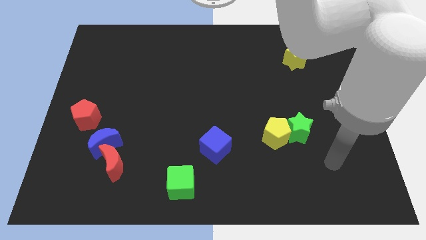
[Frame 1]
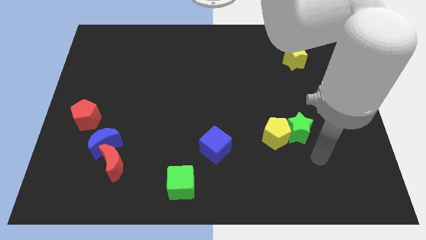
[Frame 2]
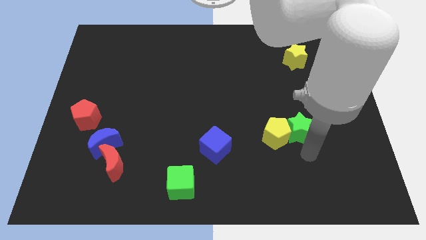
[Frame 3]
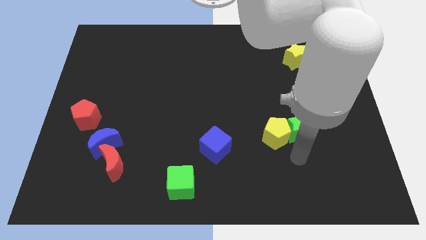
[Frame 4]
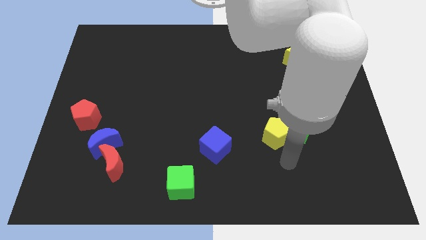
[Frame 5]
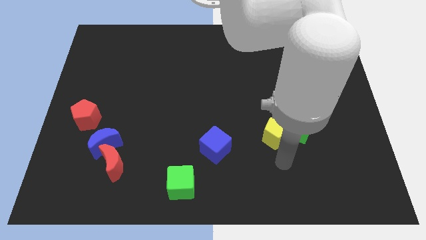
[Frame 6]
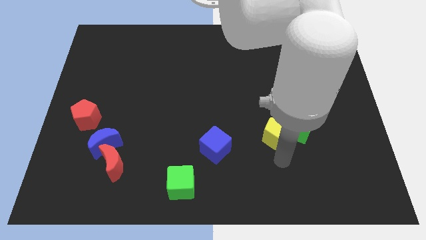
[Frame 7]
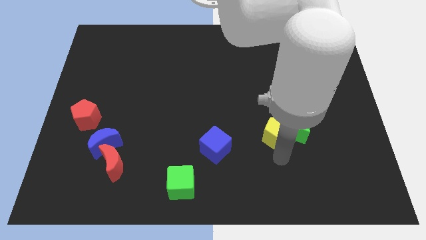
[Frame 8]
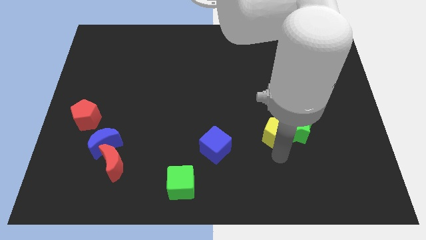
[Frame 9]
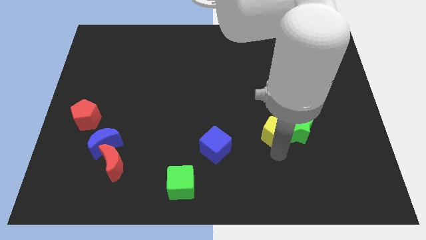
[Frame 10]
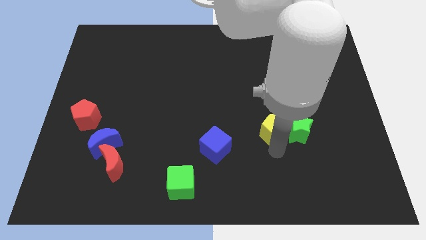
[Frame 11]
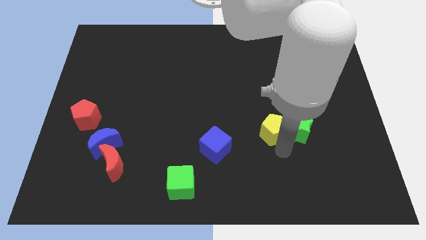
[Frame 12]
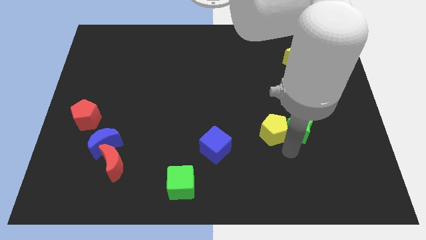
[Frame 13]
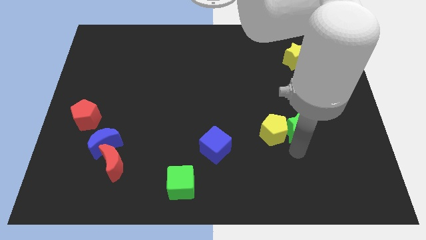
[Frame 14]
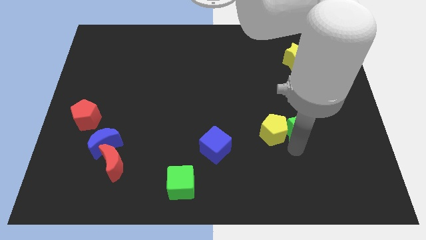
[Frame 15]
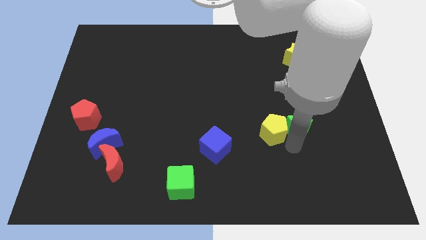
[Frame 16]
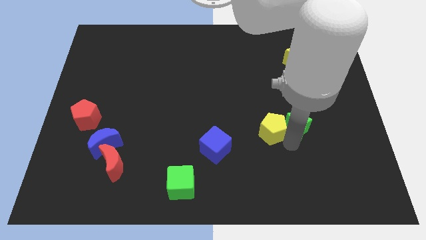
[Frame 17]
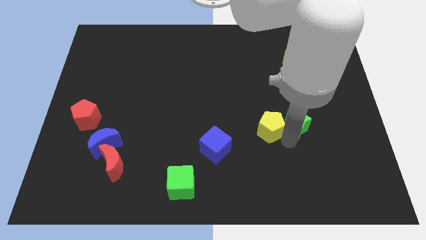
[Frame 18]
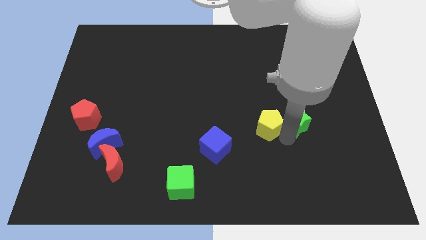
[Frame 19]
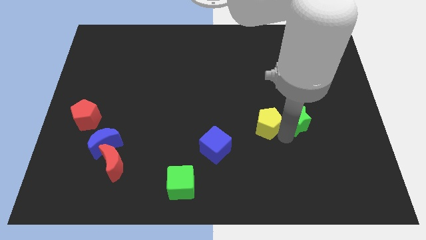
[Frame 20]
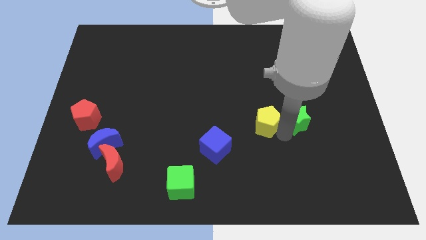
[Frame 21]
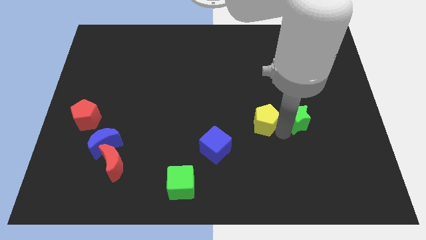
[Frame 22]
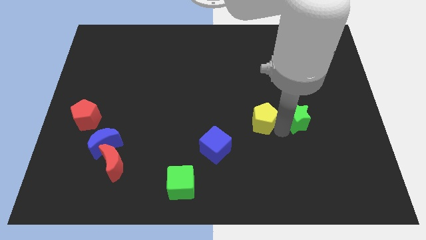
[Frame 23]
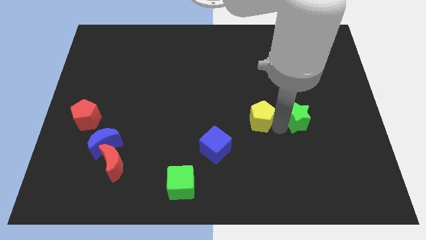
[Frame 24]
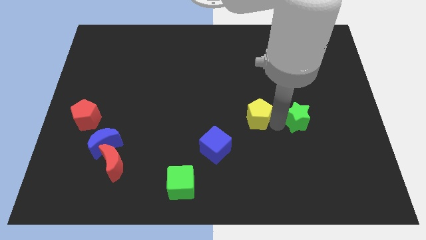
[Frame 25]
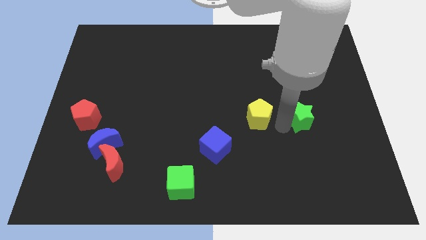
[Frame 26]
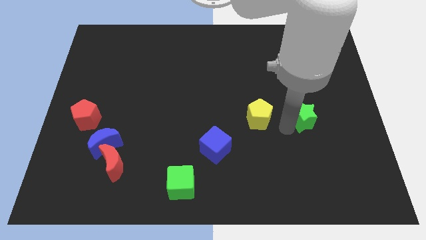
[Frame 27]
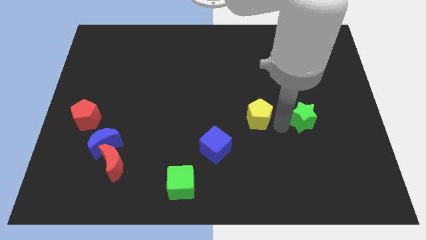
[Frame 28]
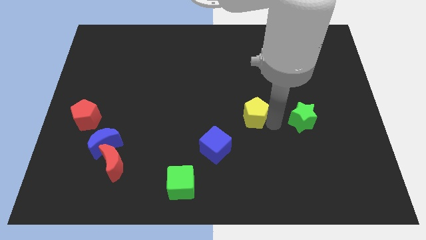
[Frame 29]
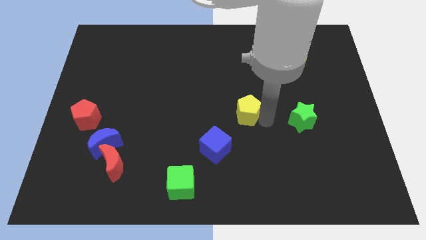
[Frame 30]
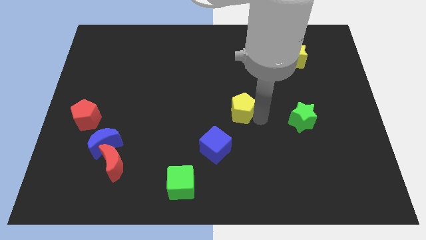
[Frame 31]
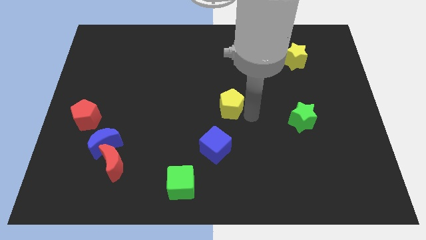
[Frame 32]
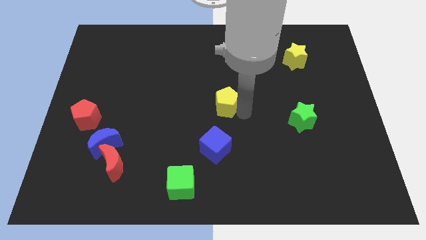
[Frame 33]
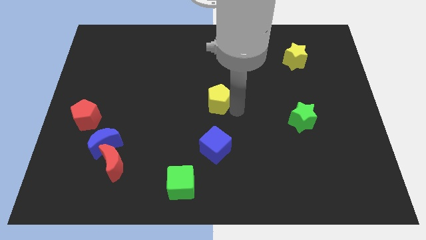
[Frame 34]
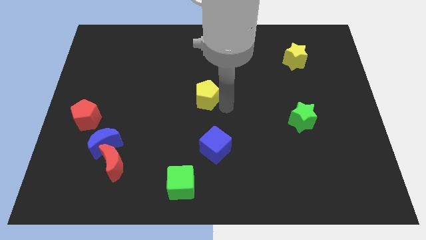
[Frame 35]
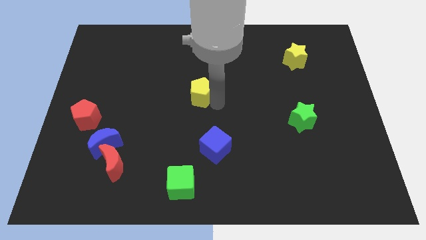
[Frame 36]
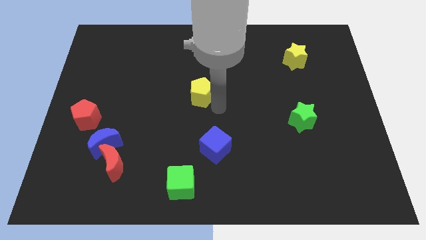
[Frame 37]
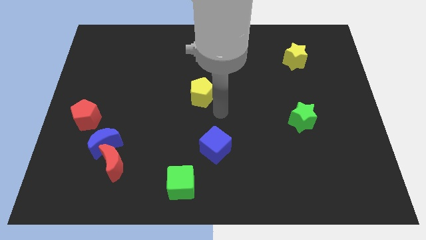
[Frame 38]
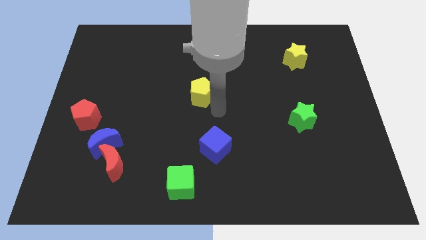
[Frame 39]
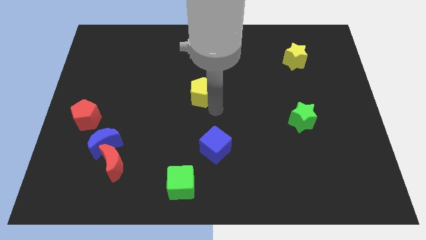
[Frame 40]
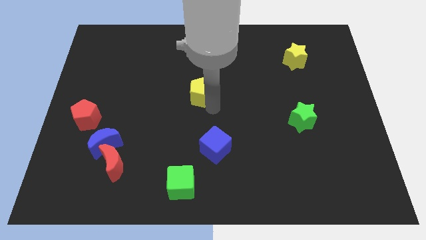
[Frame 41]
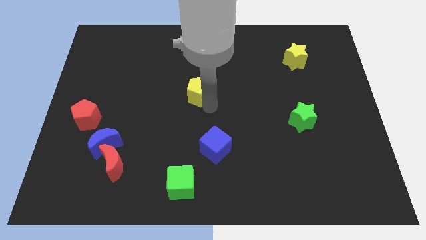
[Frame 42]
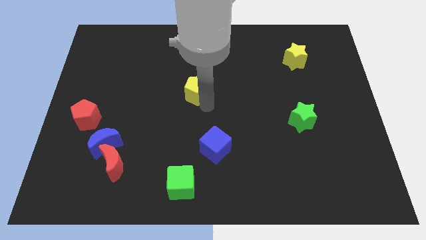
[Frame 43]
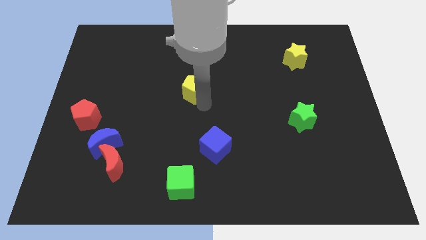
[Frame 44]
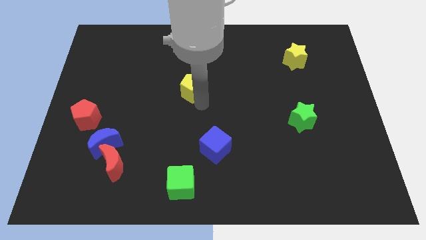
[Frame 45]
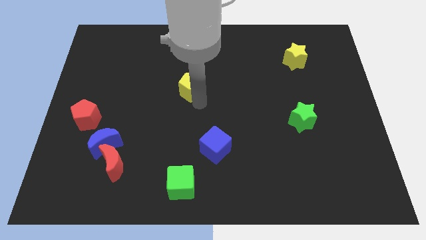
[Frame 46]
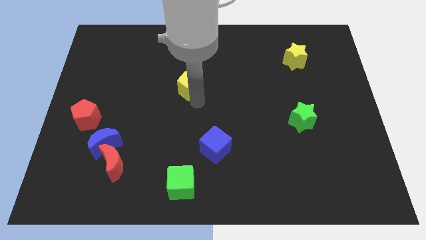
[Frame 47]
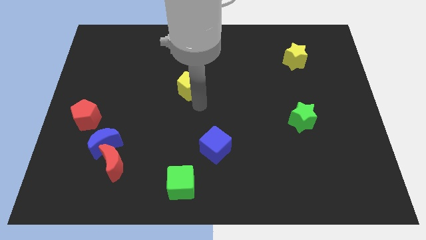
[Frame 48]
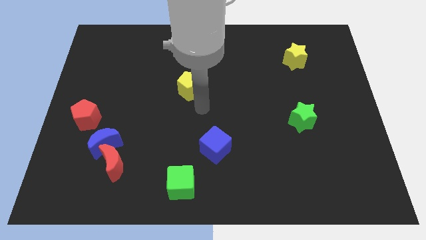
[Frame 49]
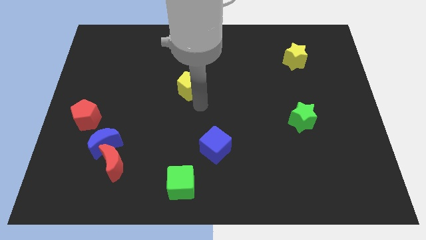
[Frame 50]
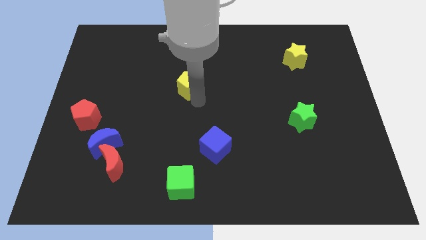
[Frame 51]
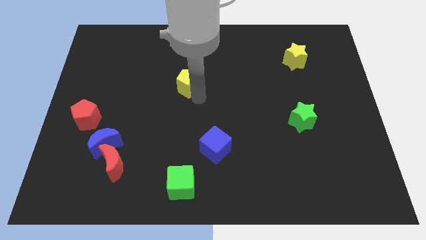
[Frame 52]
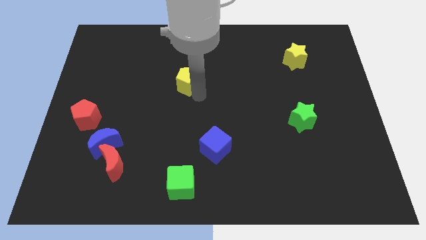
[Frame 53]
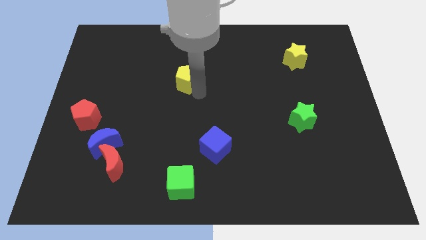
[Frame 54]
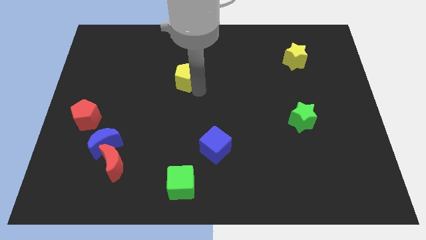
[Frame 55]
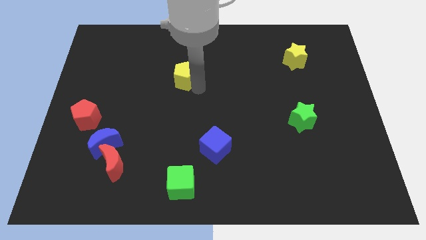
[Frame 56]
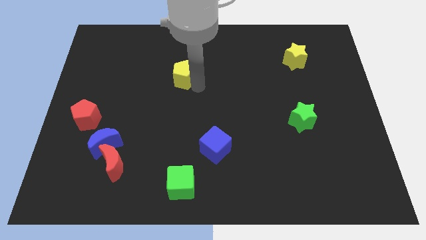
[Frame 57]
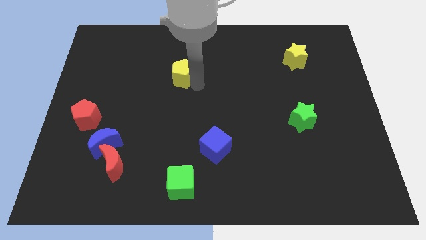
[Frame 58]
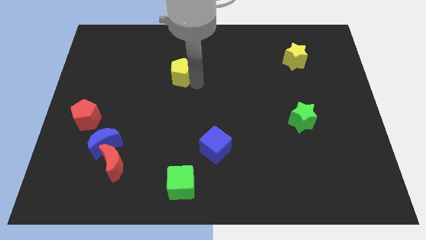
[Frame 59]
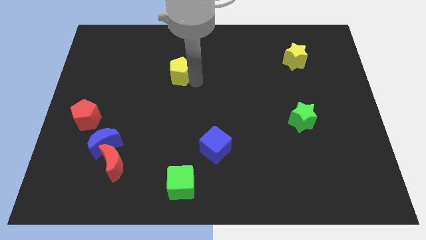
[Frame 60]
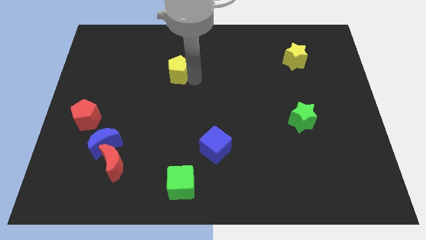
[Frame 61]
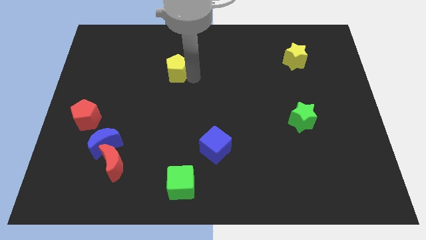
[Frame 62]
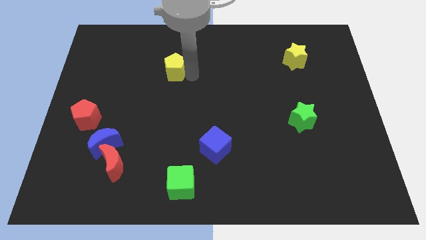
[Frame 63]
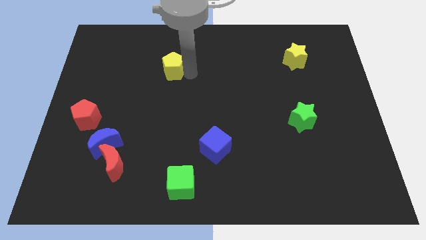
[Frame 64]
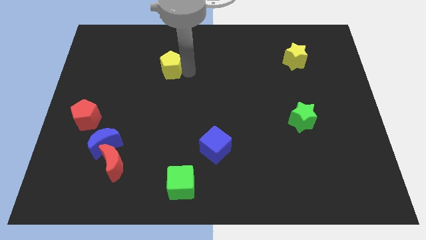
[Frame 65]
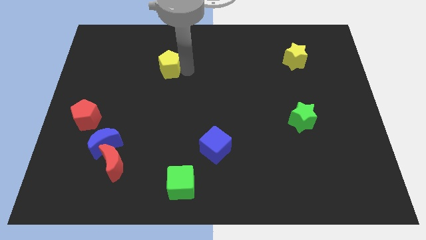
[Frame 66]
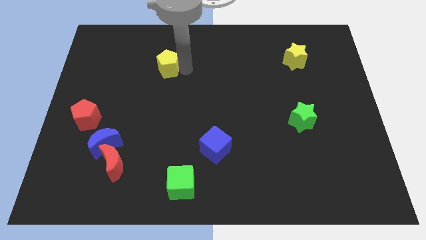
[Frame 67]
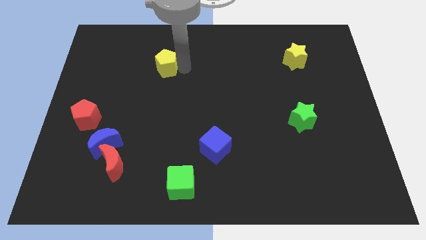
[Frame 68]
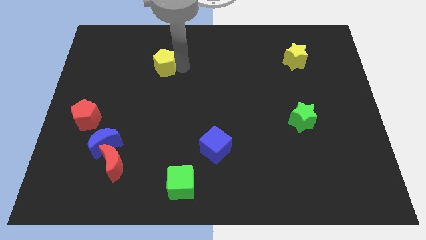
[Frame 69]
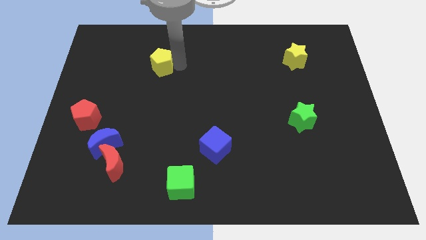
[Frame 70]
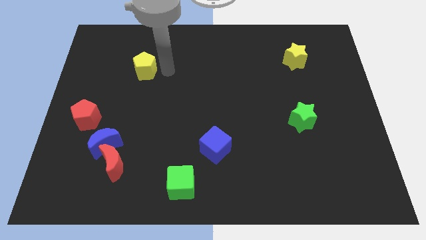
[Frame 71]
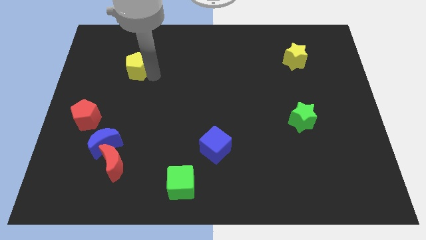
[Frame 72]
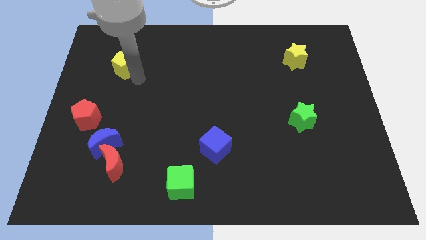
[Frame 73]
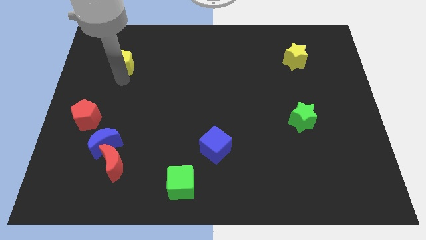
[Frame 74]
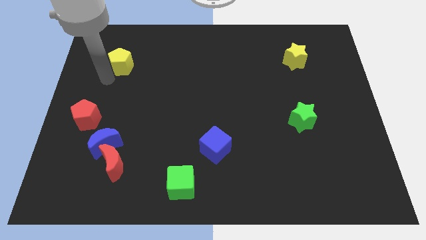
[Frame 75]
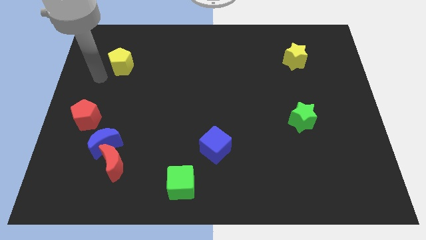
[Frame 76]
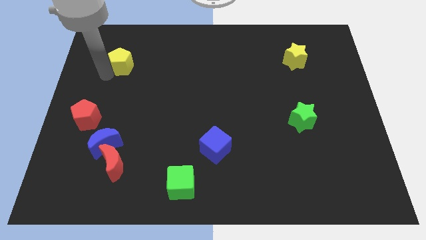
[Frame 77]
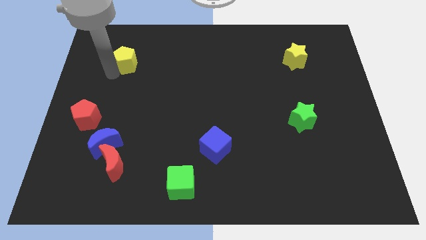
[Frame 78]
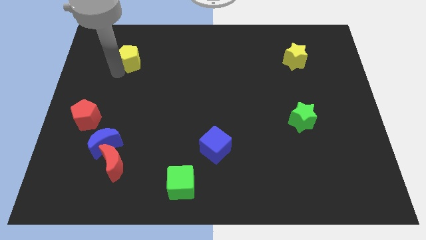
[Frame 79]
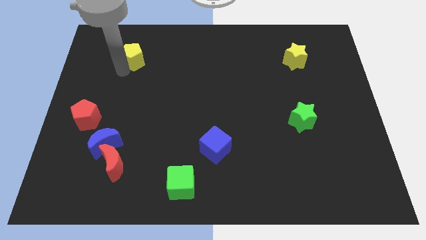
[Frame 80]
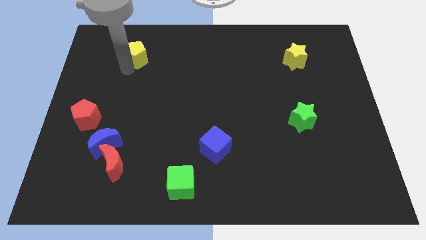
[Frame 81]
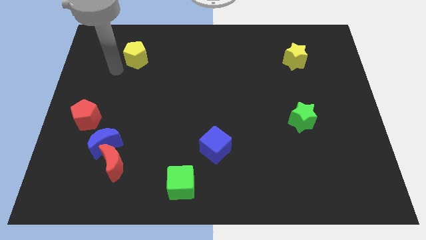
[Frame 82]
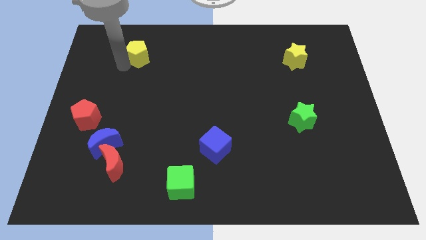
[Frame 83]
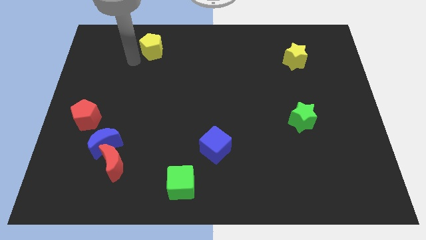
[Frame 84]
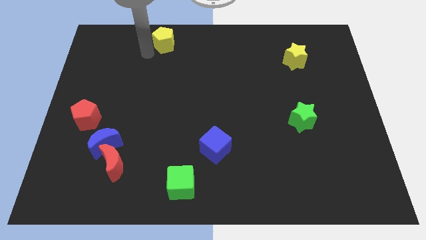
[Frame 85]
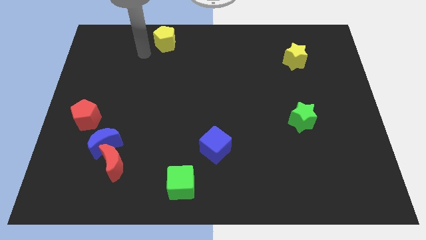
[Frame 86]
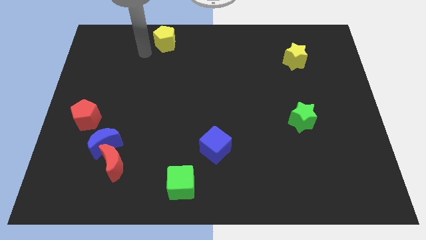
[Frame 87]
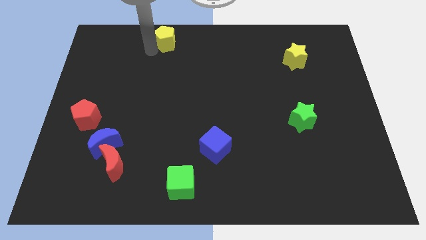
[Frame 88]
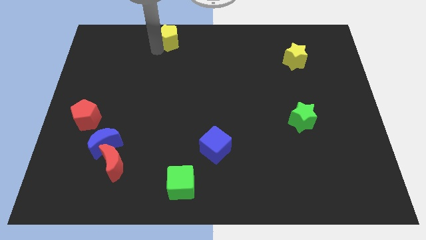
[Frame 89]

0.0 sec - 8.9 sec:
put the yellow pentagon to the towards your base
